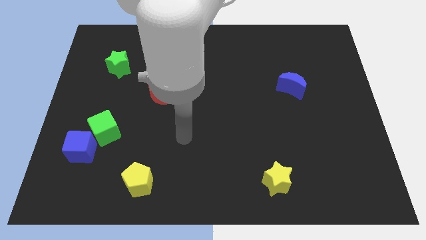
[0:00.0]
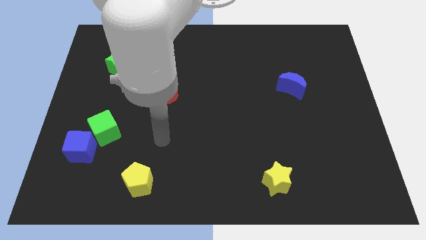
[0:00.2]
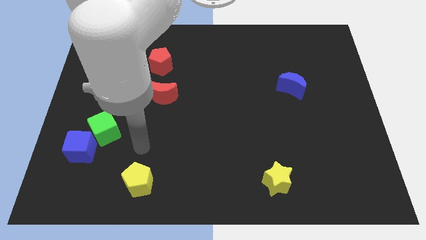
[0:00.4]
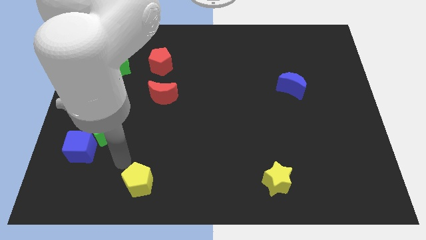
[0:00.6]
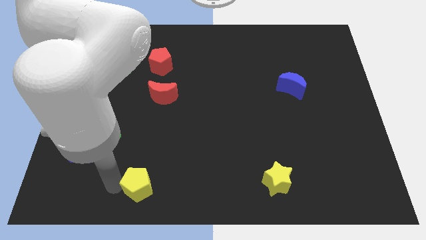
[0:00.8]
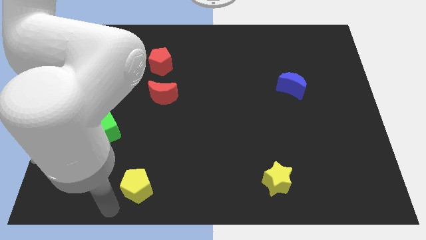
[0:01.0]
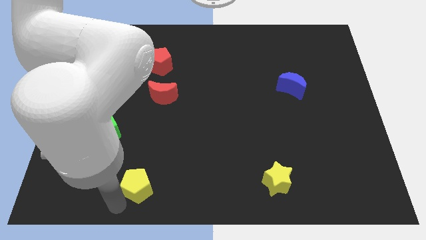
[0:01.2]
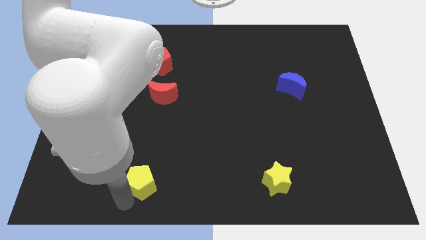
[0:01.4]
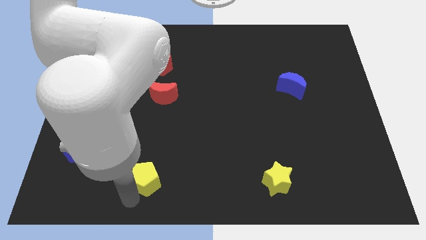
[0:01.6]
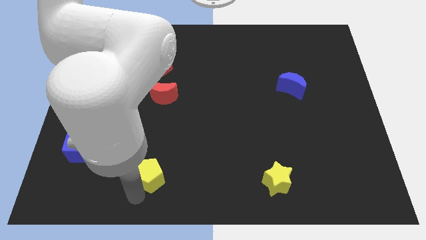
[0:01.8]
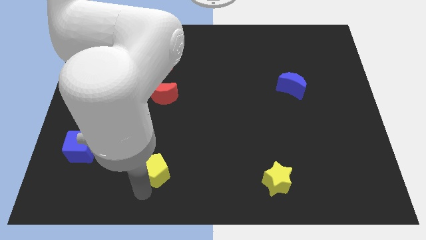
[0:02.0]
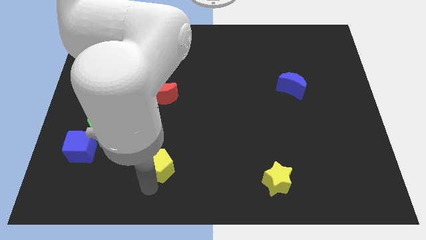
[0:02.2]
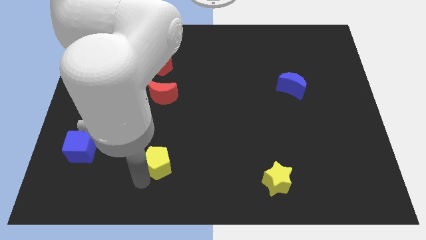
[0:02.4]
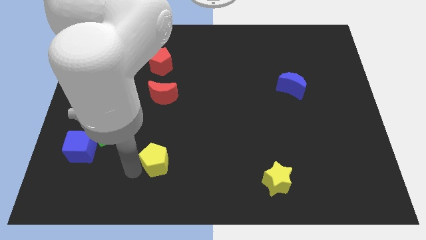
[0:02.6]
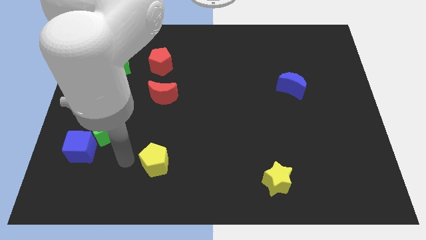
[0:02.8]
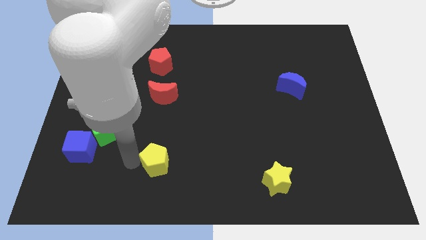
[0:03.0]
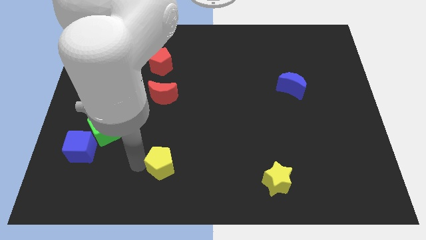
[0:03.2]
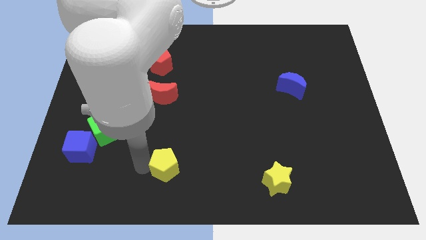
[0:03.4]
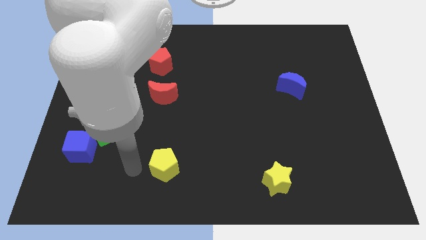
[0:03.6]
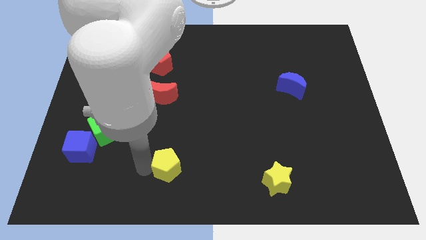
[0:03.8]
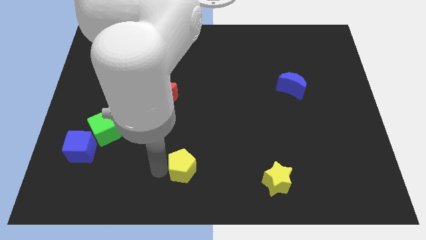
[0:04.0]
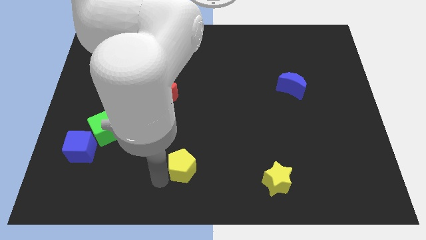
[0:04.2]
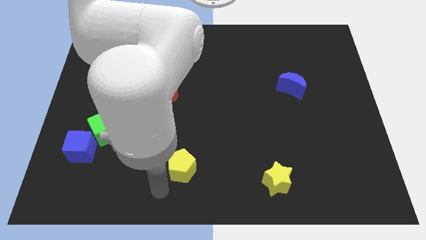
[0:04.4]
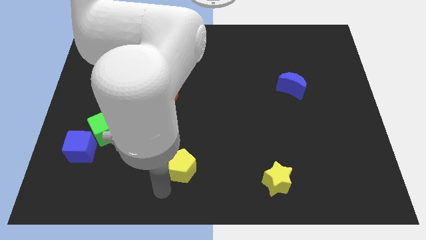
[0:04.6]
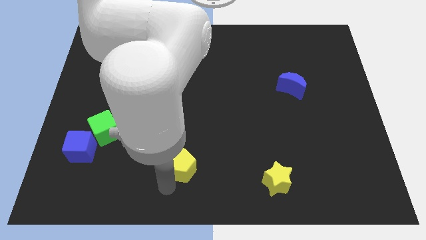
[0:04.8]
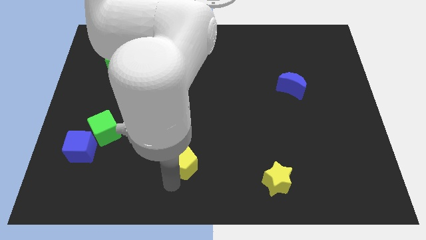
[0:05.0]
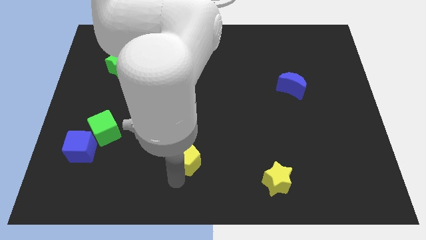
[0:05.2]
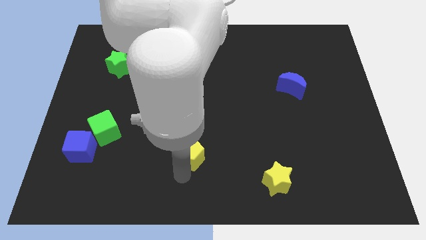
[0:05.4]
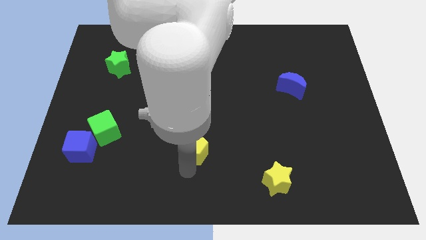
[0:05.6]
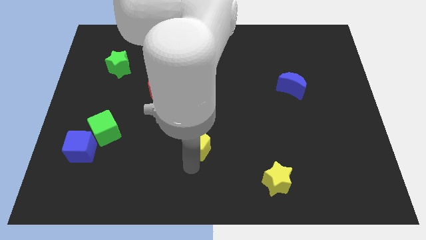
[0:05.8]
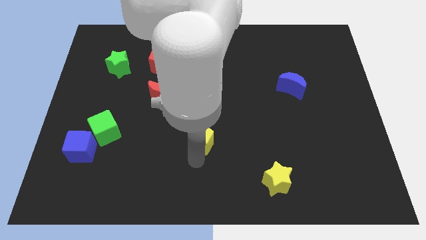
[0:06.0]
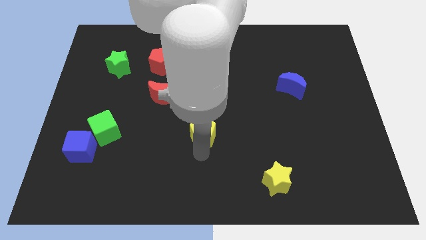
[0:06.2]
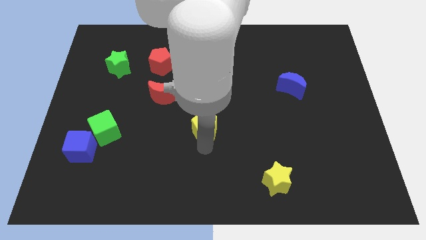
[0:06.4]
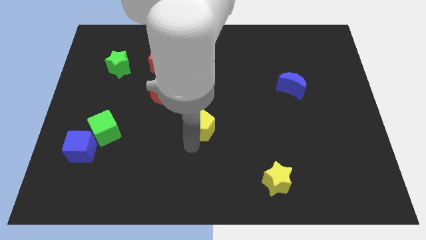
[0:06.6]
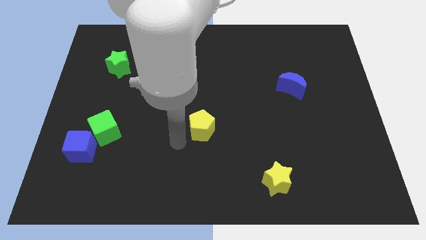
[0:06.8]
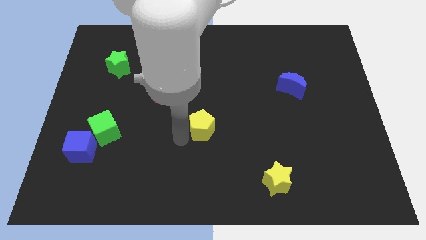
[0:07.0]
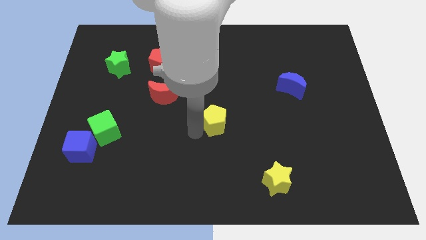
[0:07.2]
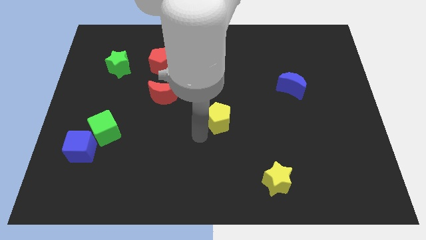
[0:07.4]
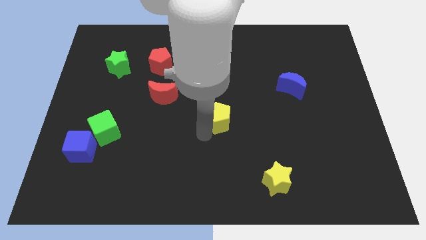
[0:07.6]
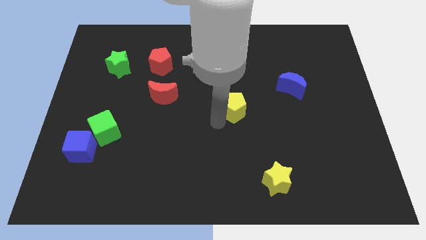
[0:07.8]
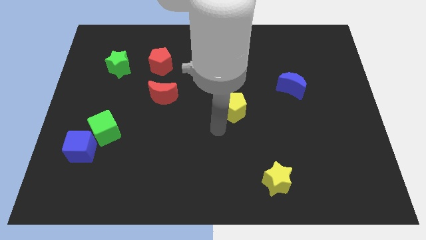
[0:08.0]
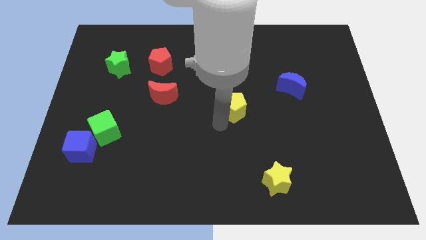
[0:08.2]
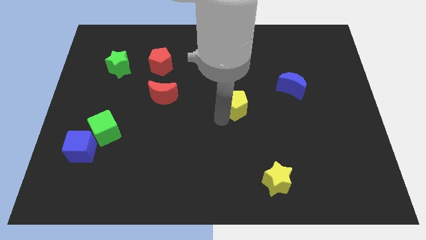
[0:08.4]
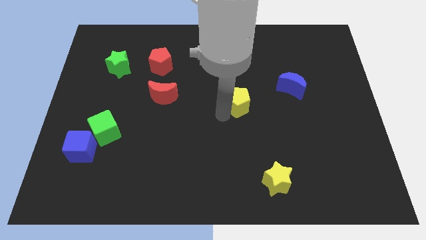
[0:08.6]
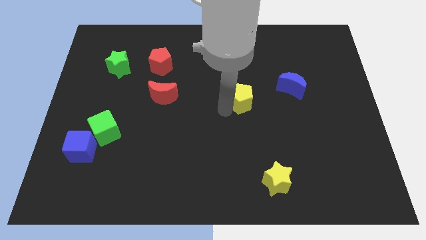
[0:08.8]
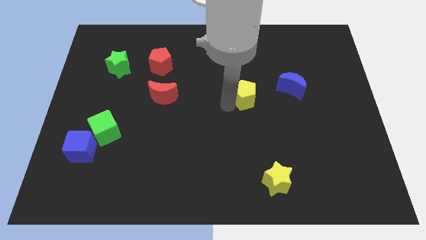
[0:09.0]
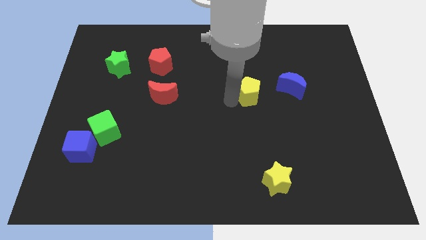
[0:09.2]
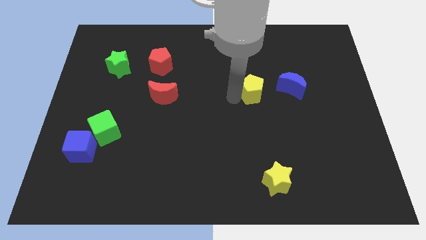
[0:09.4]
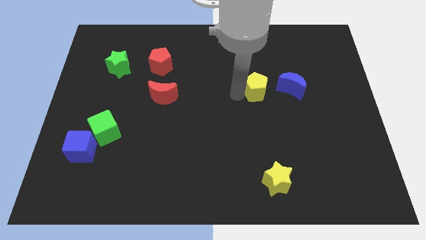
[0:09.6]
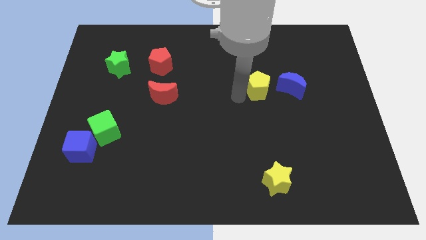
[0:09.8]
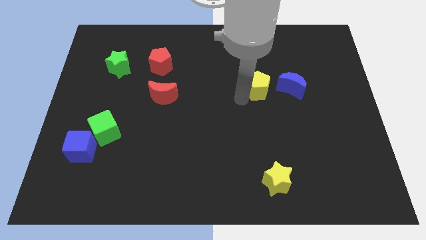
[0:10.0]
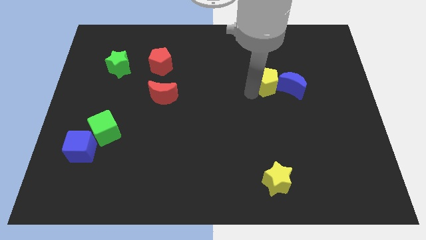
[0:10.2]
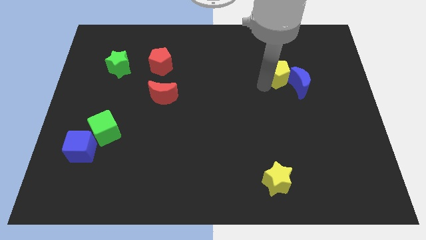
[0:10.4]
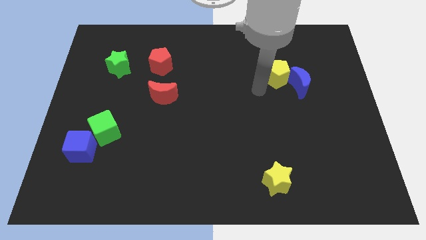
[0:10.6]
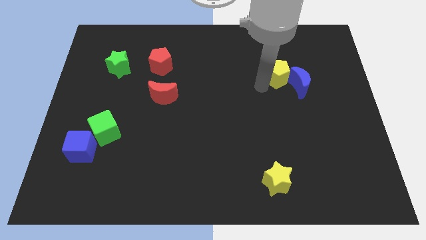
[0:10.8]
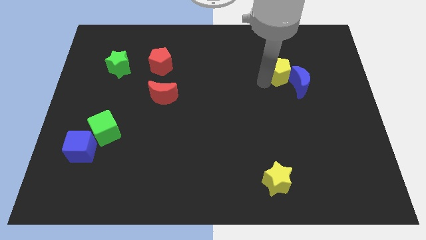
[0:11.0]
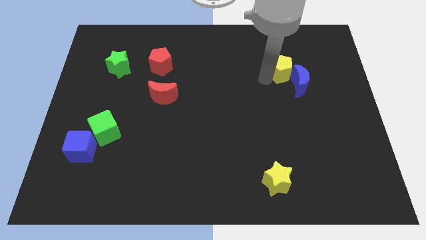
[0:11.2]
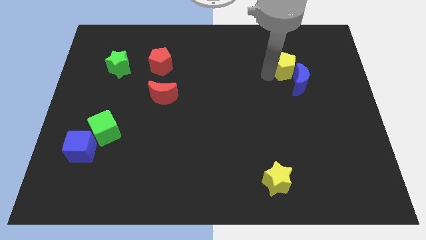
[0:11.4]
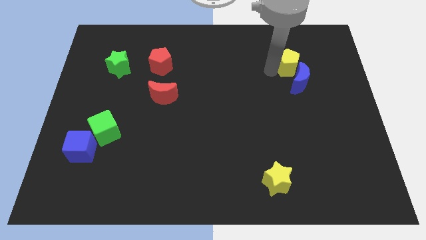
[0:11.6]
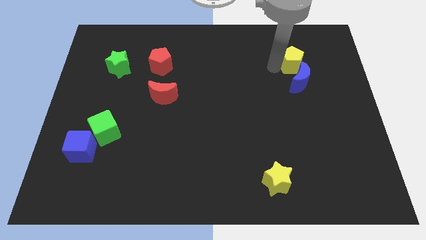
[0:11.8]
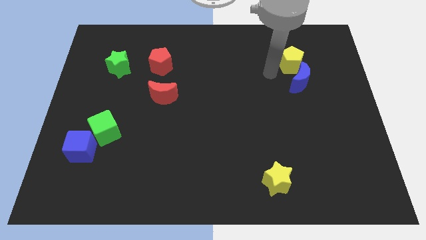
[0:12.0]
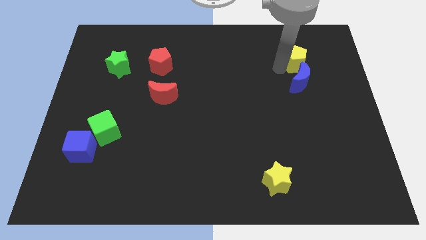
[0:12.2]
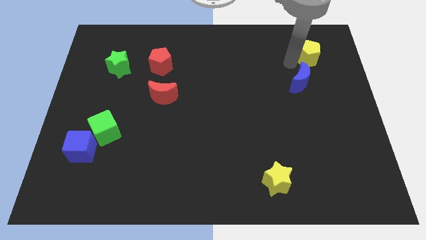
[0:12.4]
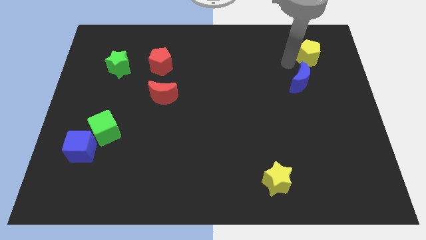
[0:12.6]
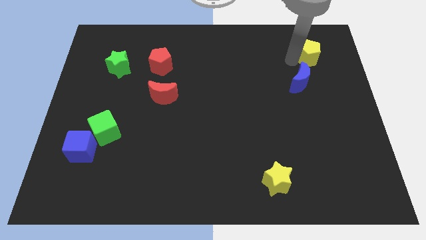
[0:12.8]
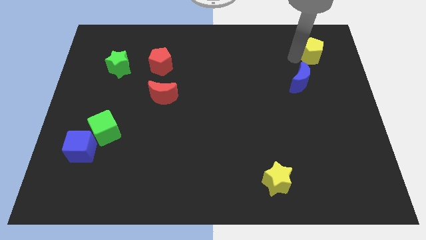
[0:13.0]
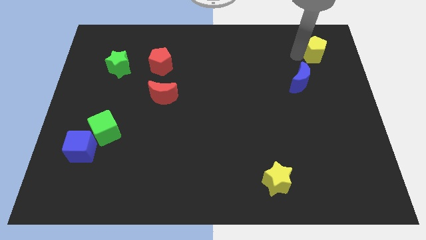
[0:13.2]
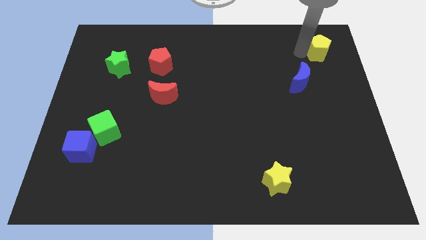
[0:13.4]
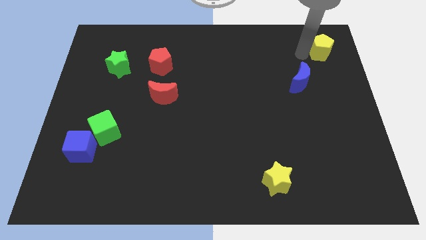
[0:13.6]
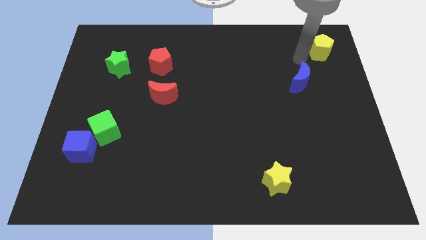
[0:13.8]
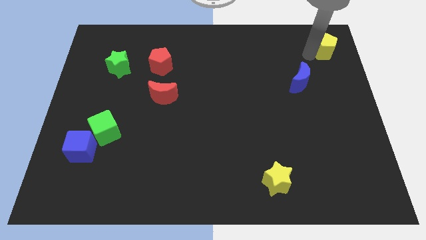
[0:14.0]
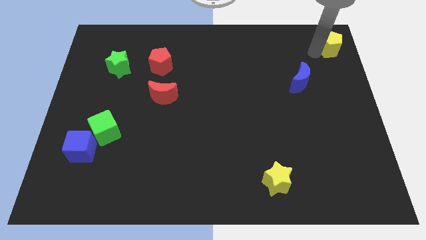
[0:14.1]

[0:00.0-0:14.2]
move the yellow pentagon to the top right
